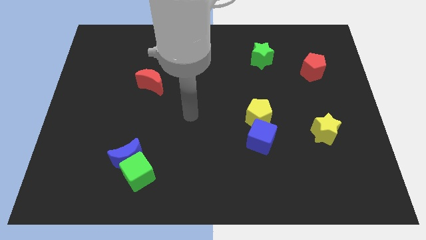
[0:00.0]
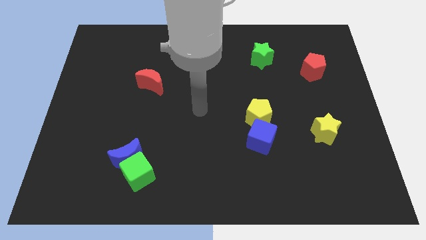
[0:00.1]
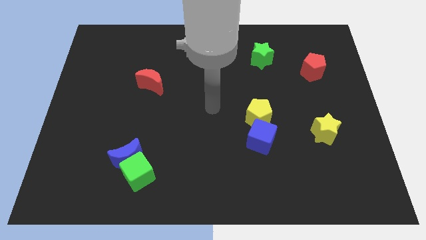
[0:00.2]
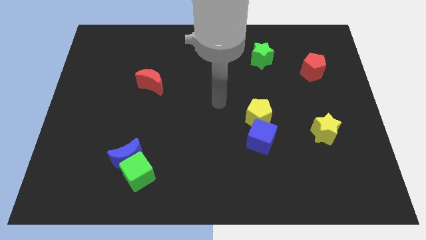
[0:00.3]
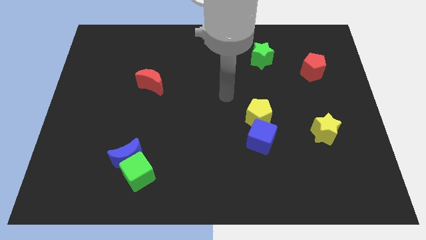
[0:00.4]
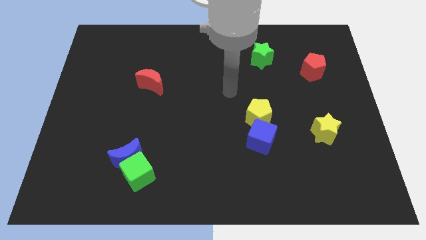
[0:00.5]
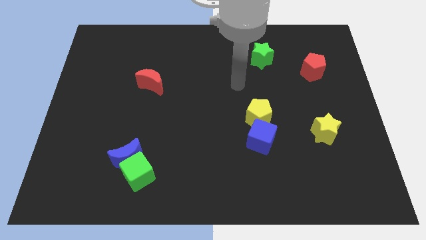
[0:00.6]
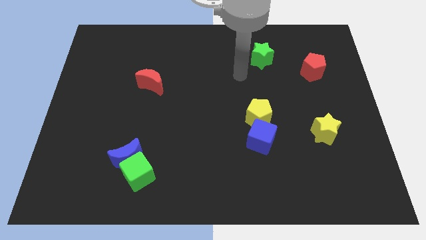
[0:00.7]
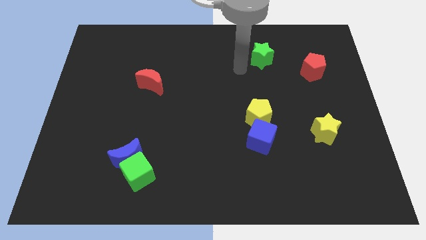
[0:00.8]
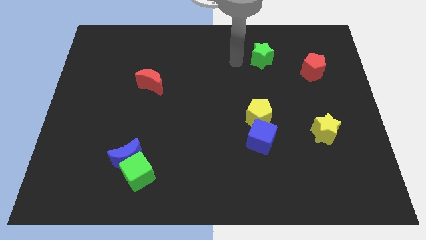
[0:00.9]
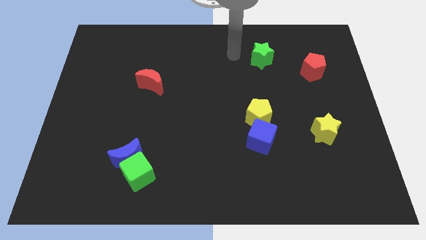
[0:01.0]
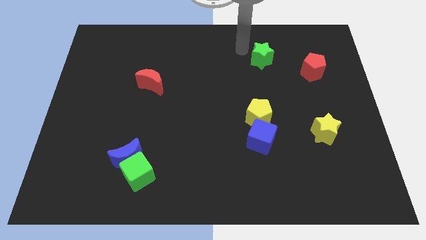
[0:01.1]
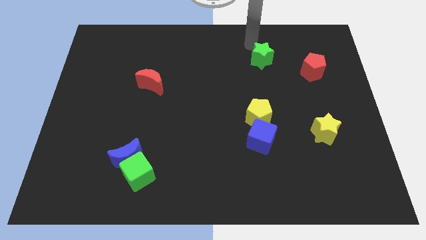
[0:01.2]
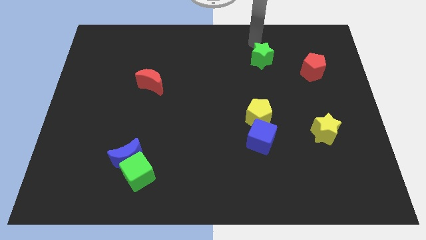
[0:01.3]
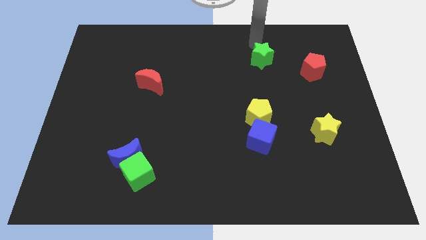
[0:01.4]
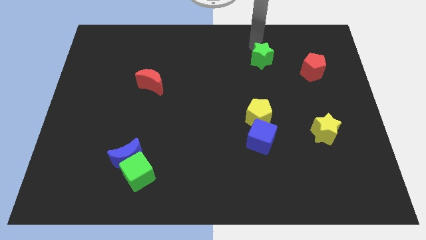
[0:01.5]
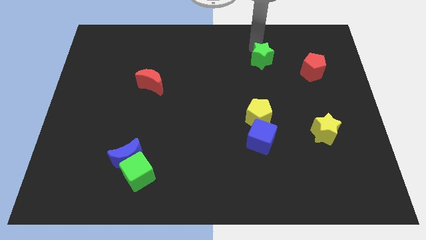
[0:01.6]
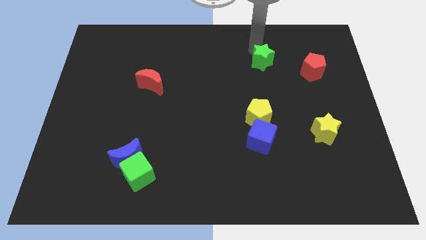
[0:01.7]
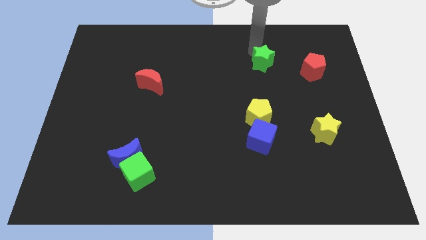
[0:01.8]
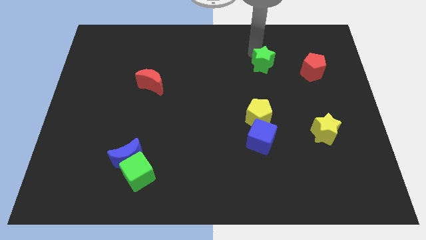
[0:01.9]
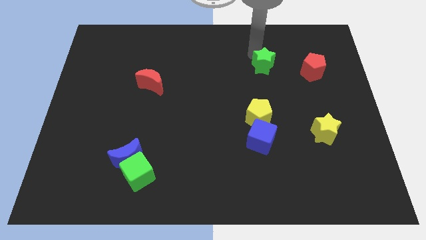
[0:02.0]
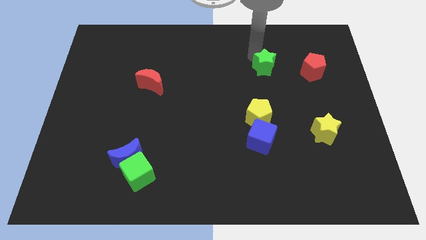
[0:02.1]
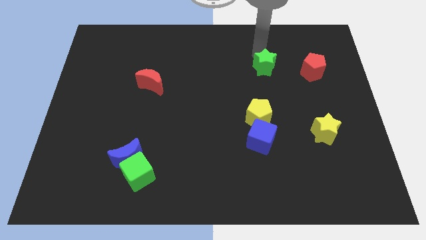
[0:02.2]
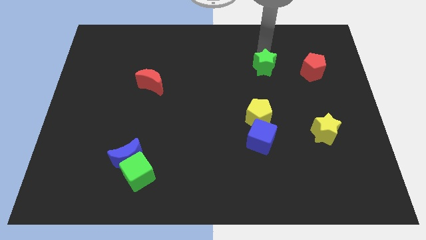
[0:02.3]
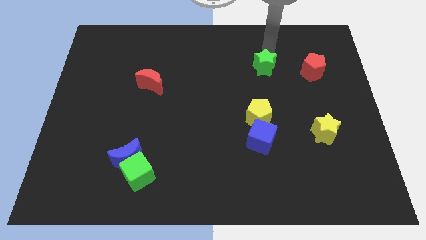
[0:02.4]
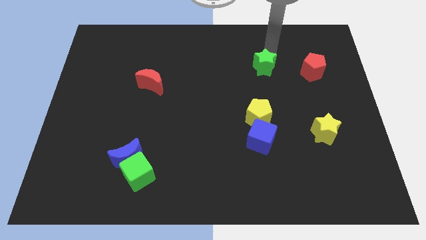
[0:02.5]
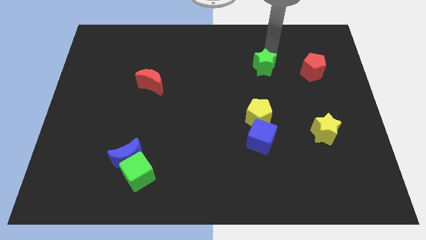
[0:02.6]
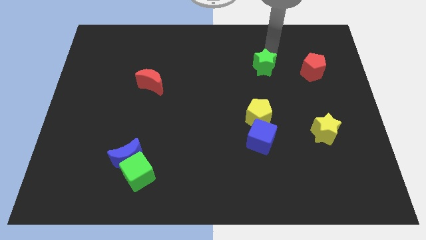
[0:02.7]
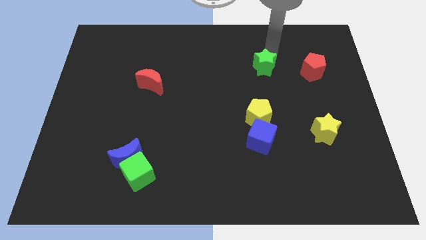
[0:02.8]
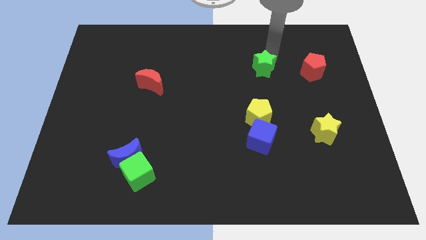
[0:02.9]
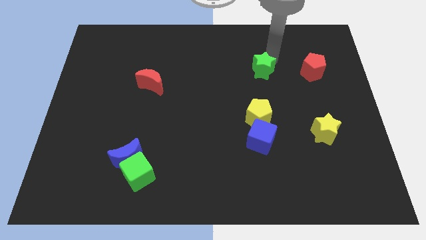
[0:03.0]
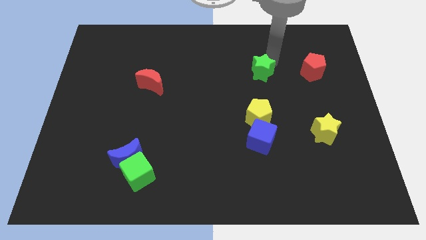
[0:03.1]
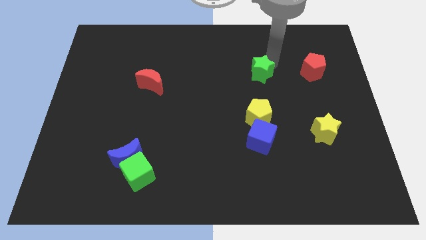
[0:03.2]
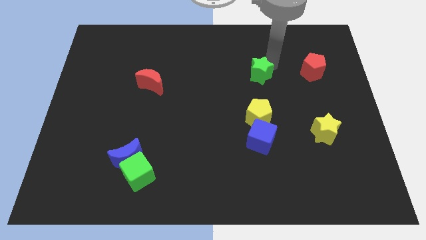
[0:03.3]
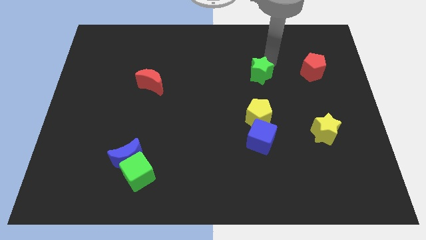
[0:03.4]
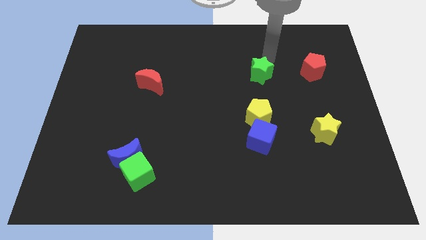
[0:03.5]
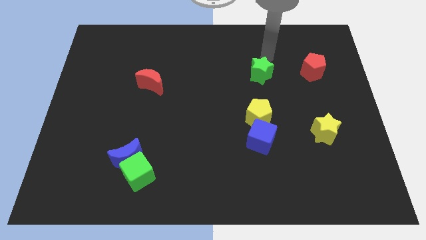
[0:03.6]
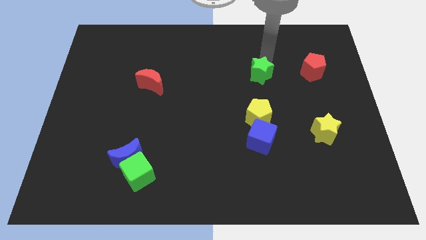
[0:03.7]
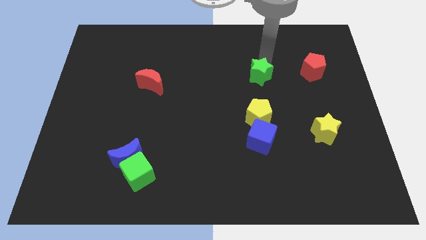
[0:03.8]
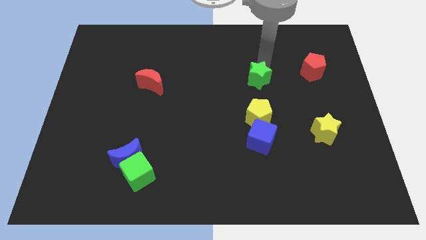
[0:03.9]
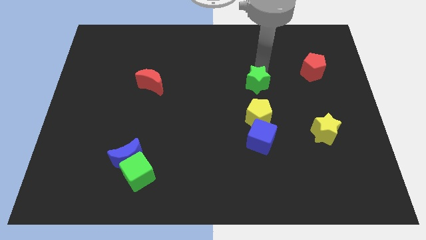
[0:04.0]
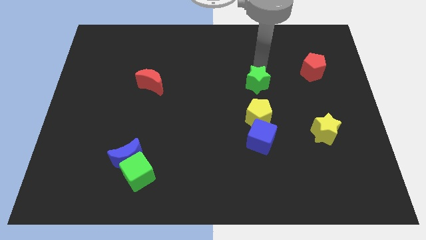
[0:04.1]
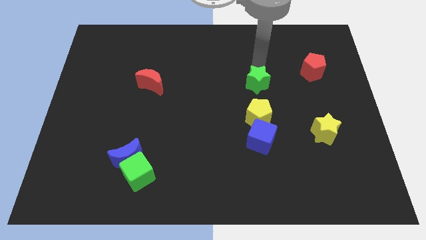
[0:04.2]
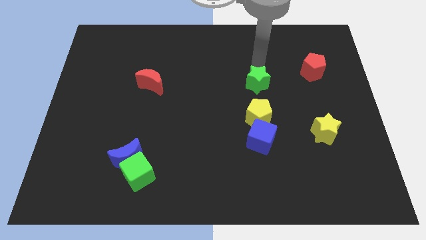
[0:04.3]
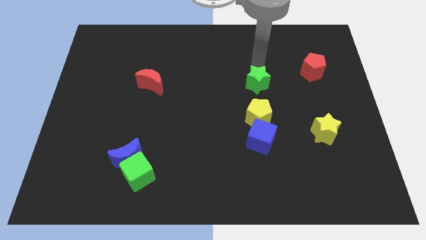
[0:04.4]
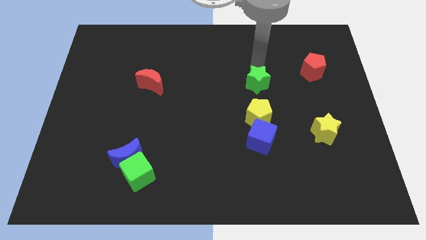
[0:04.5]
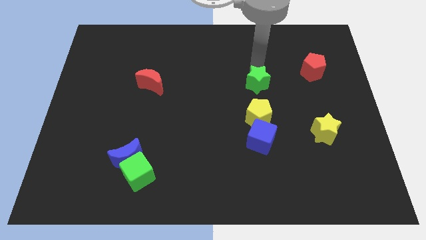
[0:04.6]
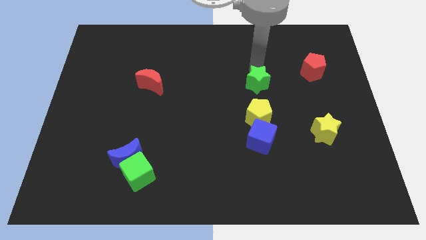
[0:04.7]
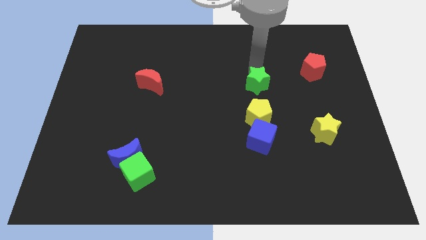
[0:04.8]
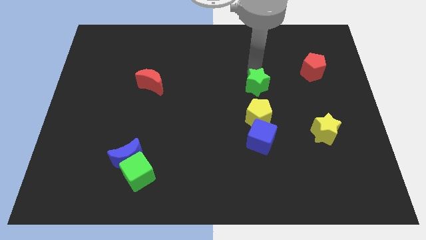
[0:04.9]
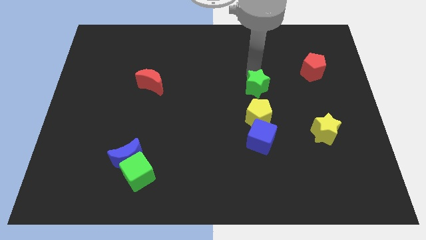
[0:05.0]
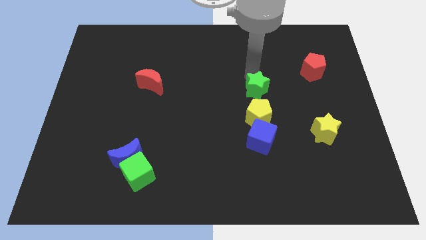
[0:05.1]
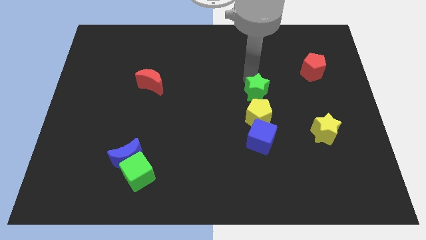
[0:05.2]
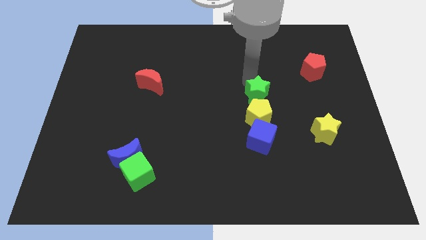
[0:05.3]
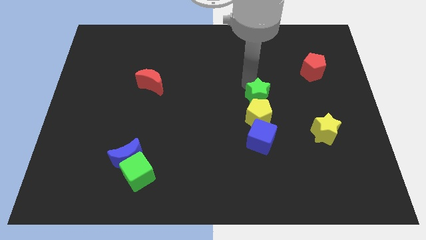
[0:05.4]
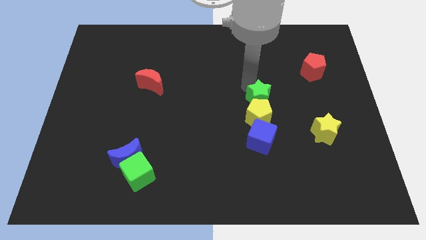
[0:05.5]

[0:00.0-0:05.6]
push the green star to the yellow pentagon

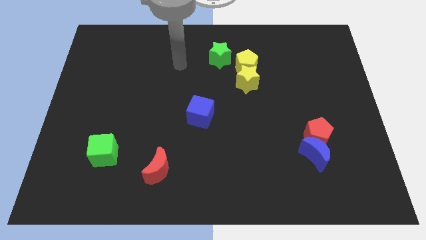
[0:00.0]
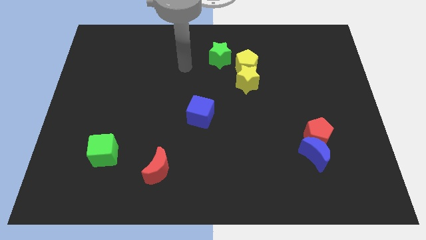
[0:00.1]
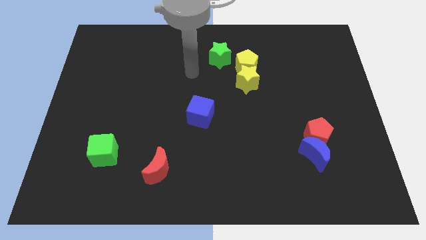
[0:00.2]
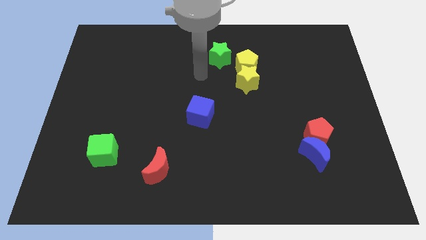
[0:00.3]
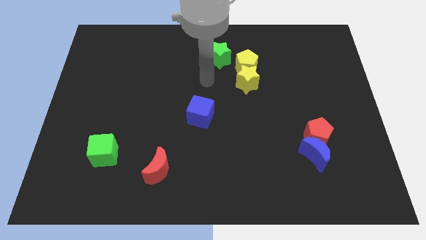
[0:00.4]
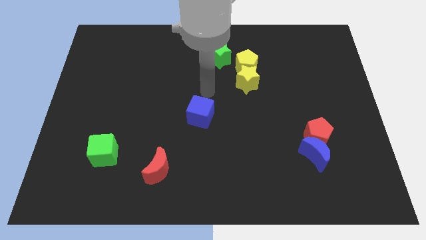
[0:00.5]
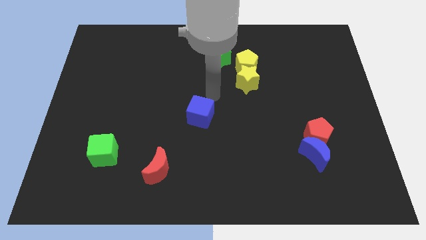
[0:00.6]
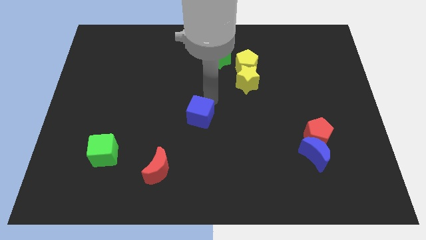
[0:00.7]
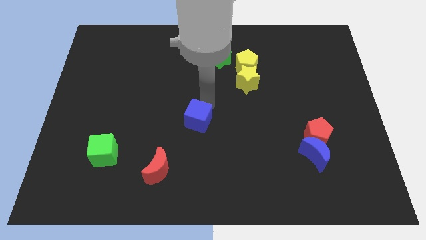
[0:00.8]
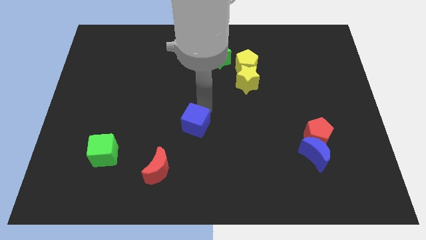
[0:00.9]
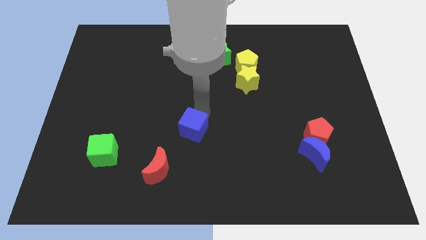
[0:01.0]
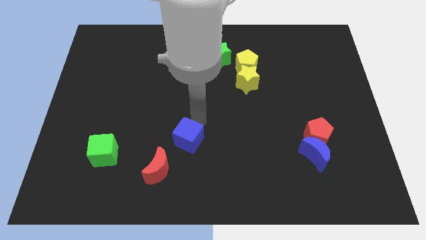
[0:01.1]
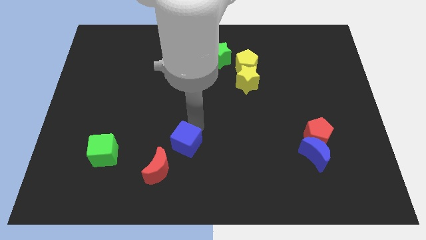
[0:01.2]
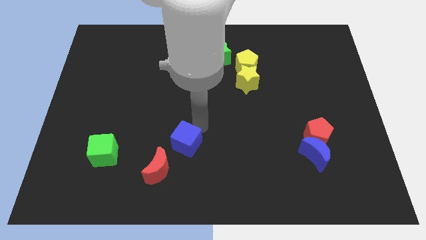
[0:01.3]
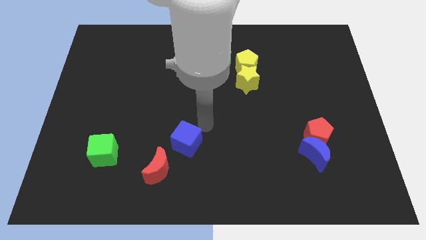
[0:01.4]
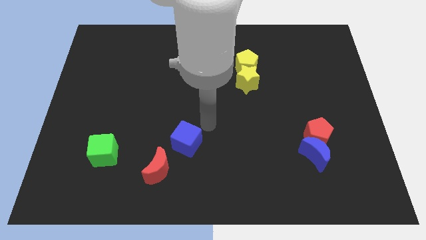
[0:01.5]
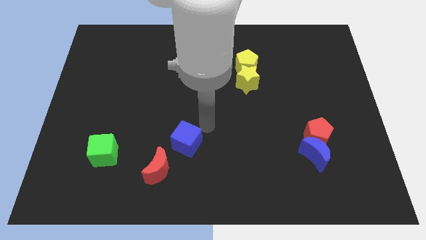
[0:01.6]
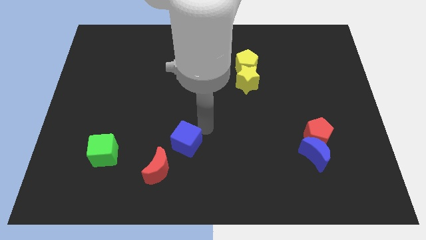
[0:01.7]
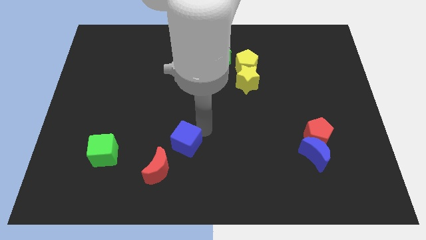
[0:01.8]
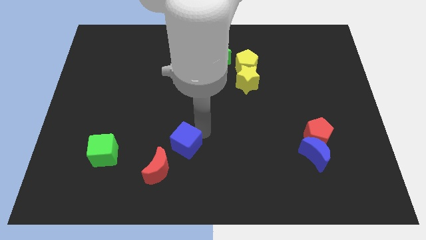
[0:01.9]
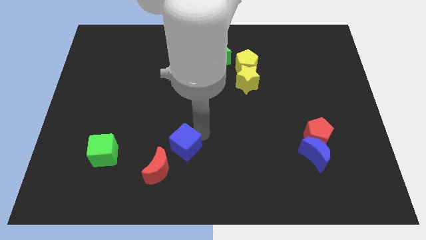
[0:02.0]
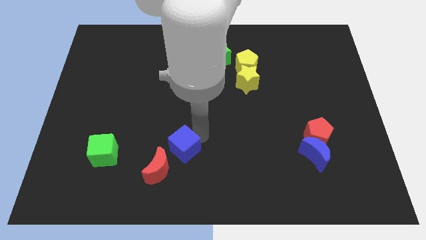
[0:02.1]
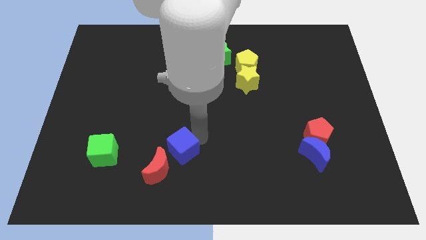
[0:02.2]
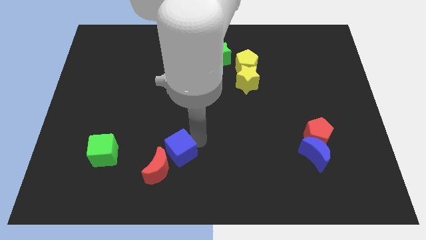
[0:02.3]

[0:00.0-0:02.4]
push the blue cube to the red moon
